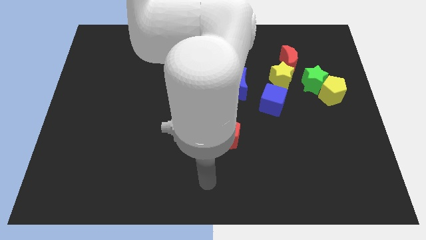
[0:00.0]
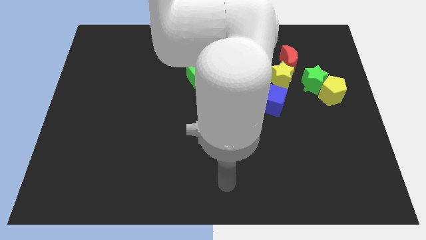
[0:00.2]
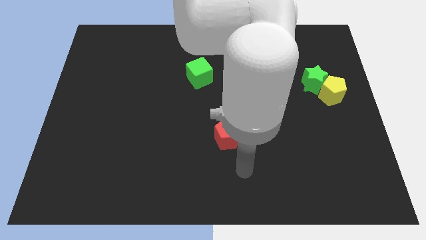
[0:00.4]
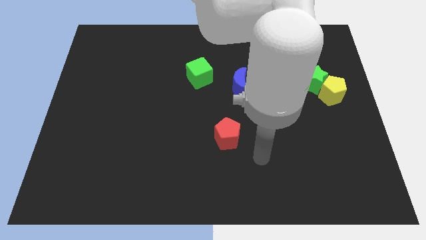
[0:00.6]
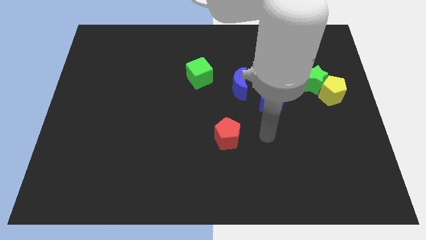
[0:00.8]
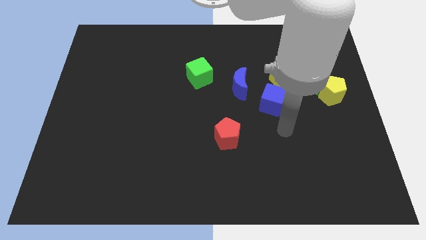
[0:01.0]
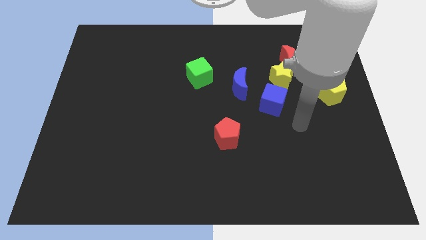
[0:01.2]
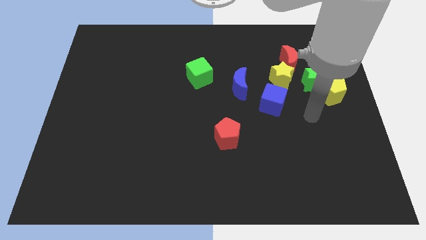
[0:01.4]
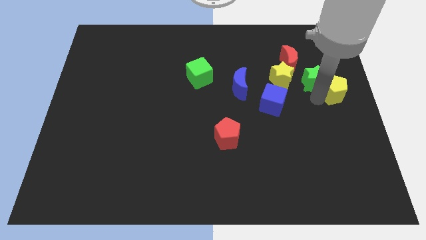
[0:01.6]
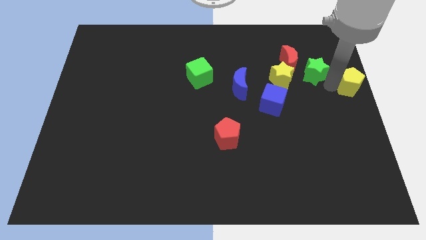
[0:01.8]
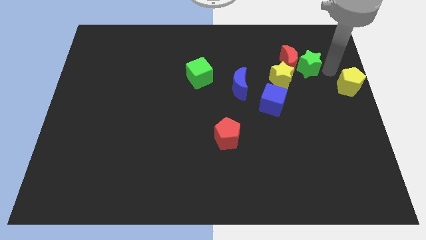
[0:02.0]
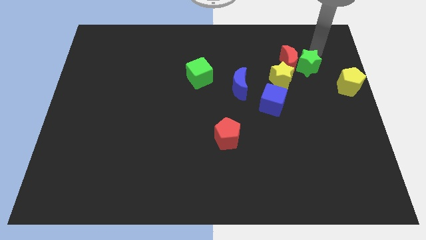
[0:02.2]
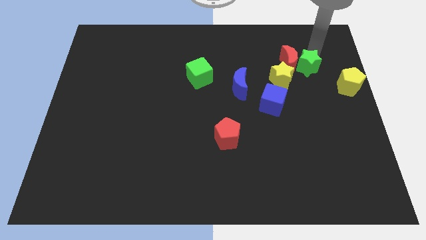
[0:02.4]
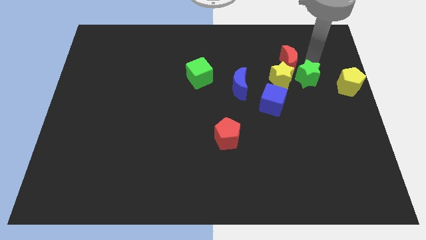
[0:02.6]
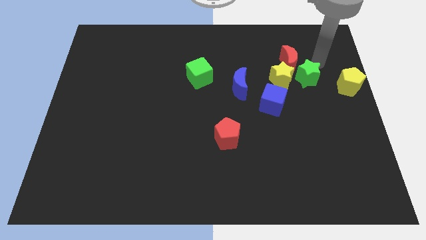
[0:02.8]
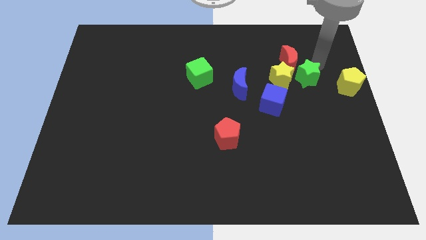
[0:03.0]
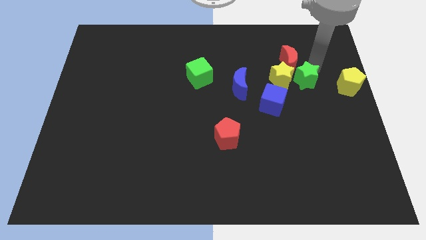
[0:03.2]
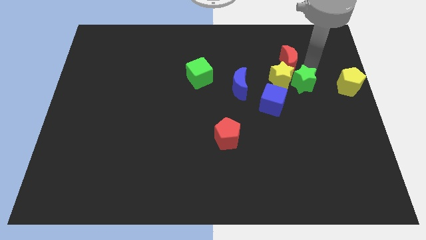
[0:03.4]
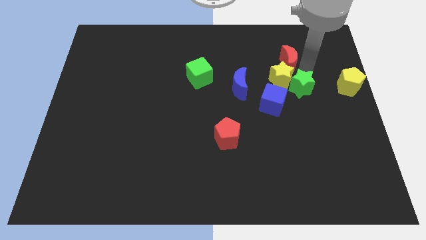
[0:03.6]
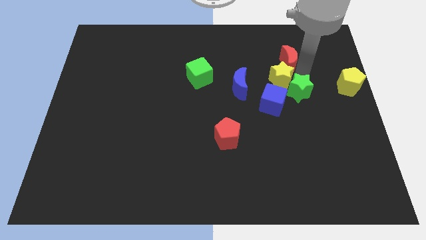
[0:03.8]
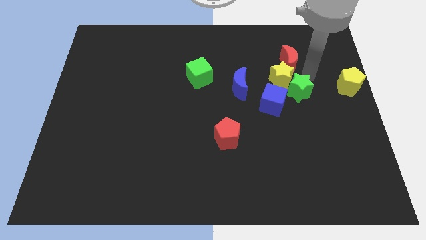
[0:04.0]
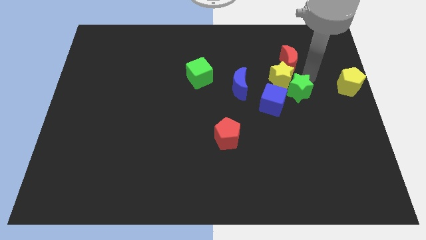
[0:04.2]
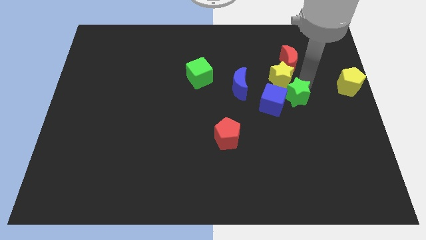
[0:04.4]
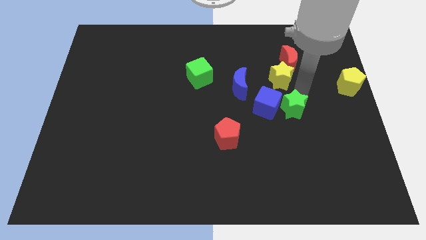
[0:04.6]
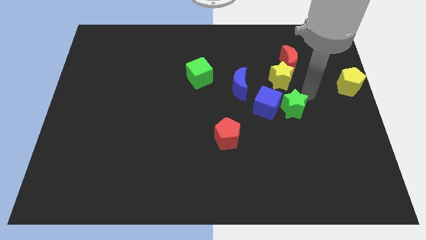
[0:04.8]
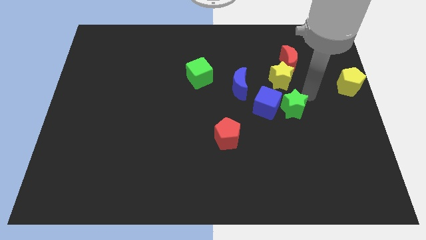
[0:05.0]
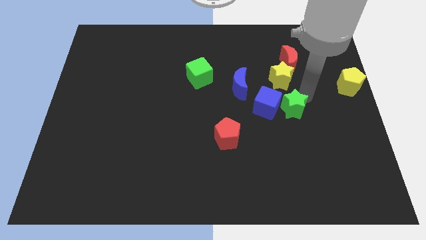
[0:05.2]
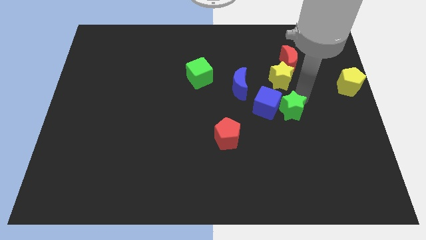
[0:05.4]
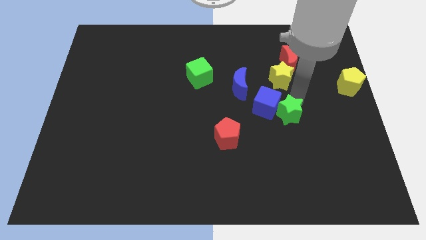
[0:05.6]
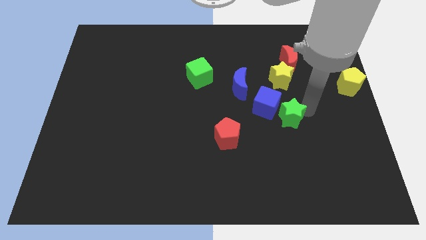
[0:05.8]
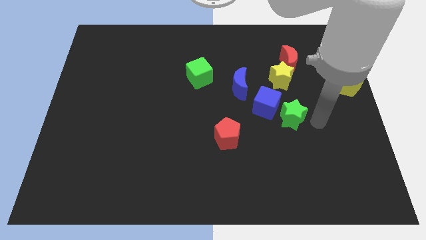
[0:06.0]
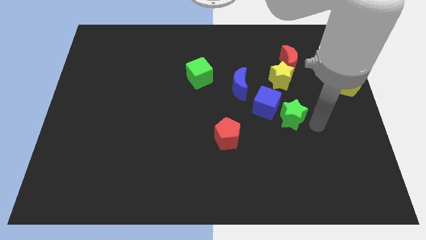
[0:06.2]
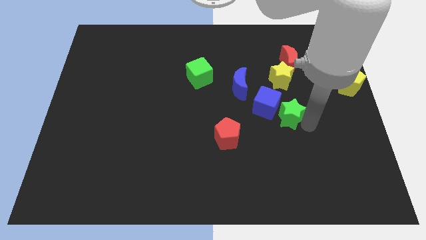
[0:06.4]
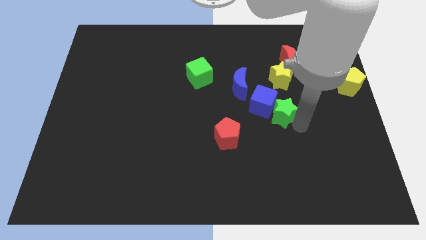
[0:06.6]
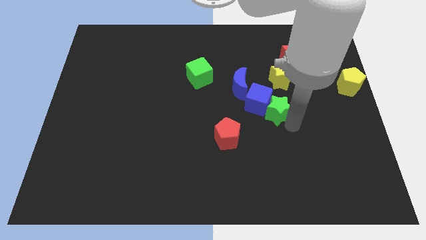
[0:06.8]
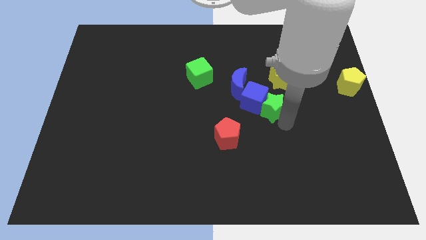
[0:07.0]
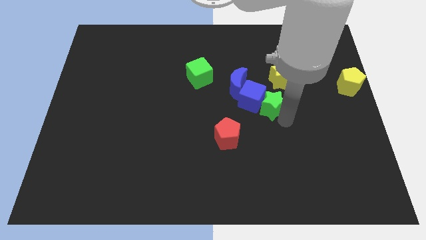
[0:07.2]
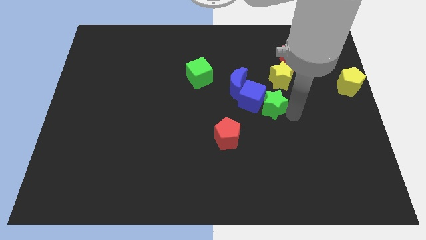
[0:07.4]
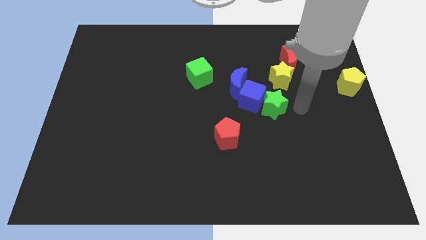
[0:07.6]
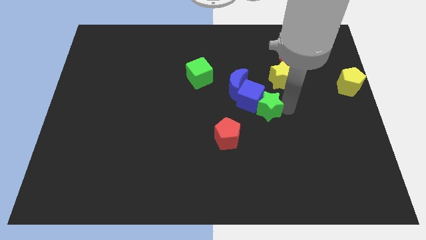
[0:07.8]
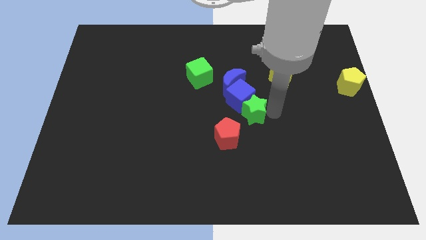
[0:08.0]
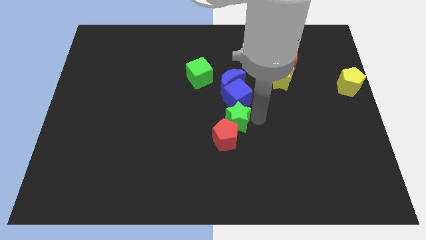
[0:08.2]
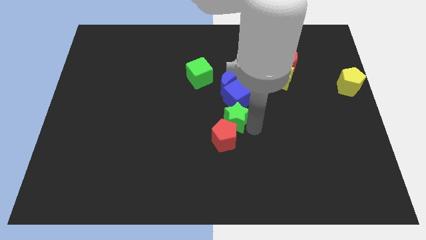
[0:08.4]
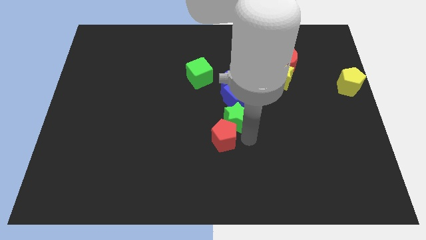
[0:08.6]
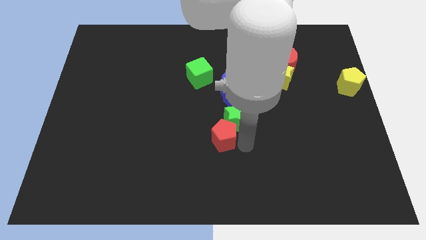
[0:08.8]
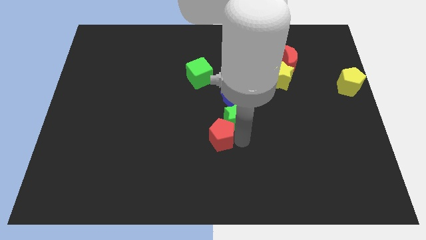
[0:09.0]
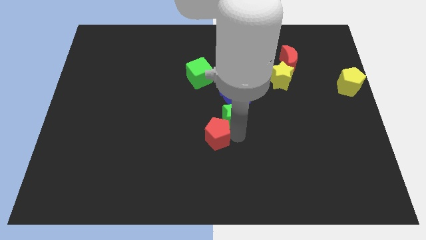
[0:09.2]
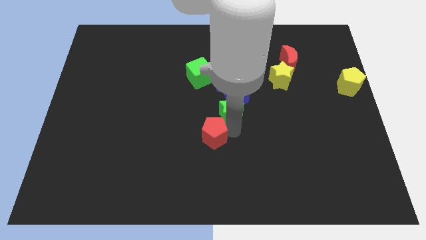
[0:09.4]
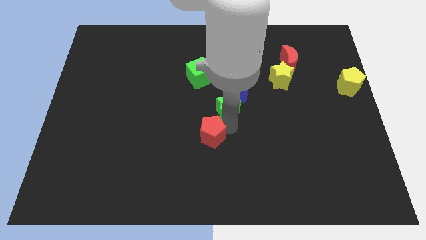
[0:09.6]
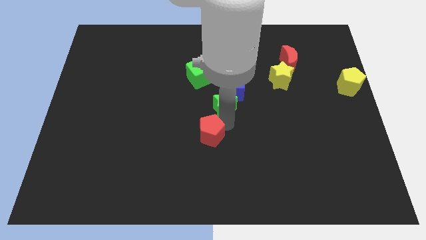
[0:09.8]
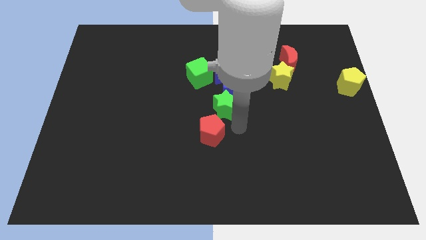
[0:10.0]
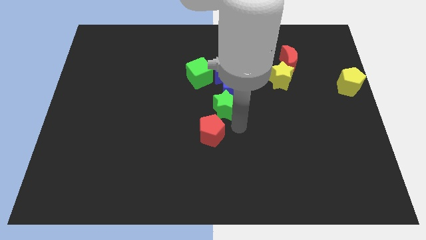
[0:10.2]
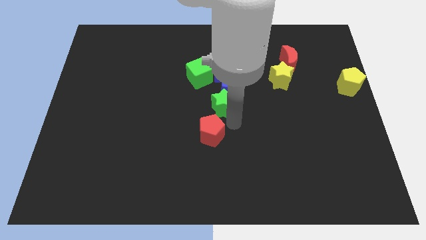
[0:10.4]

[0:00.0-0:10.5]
slide the green star left

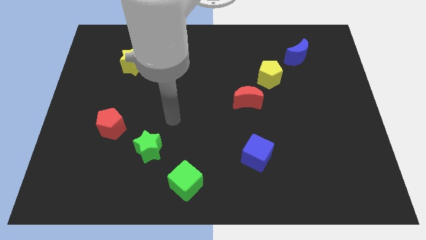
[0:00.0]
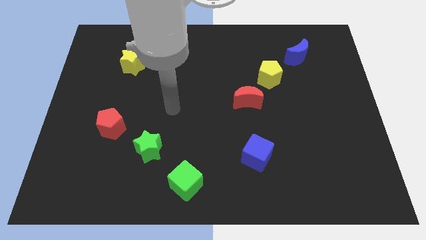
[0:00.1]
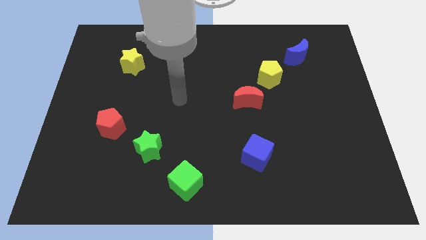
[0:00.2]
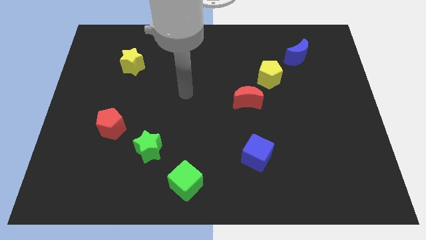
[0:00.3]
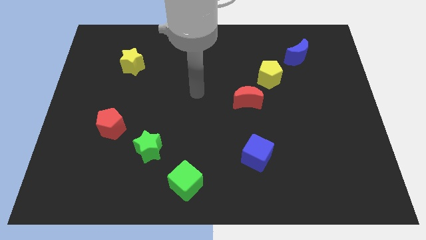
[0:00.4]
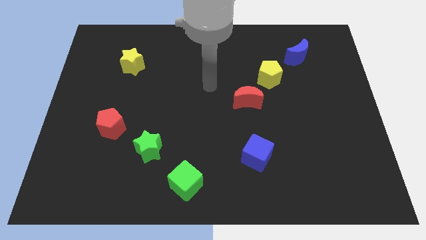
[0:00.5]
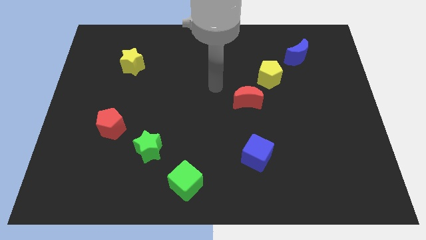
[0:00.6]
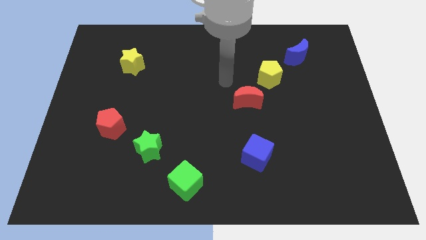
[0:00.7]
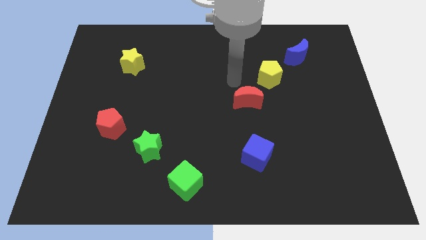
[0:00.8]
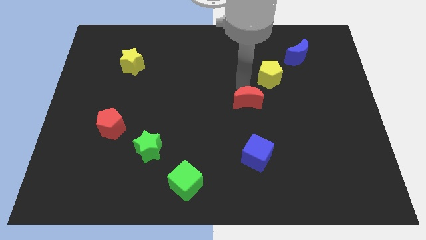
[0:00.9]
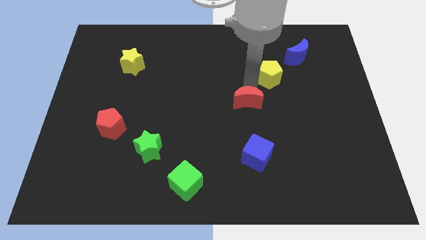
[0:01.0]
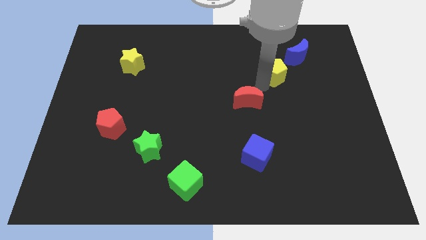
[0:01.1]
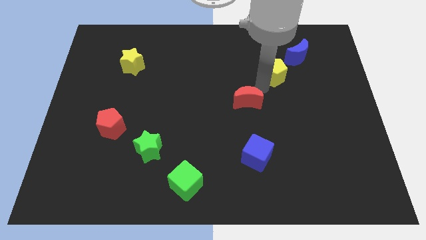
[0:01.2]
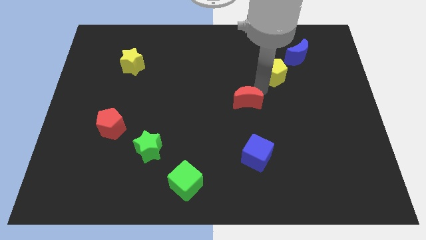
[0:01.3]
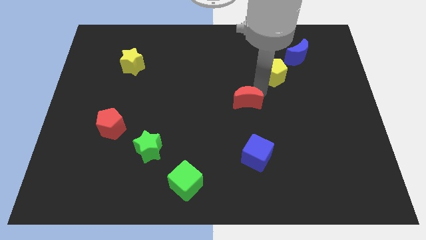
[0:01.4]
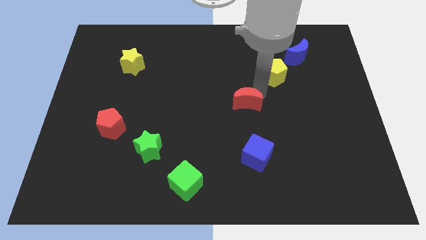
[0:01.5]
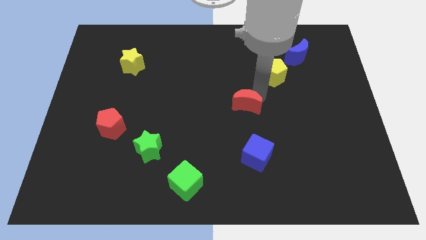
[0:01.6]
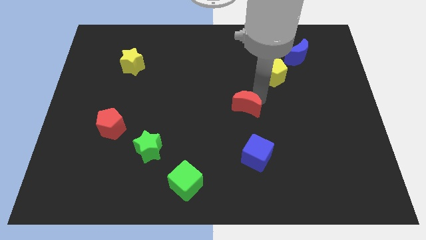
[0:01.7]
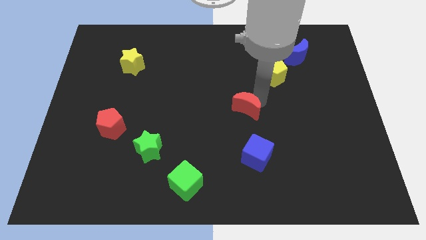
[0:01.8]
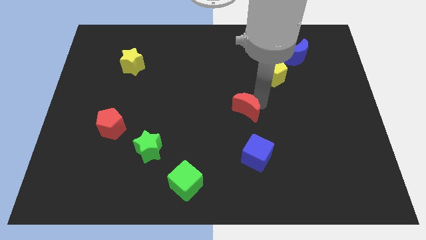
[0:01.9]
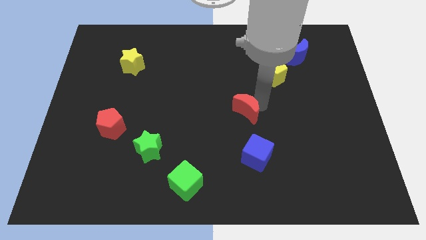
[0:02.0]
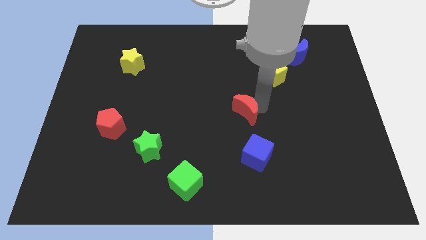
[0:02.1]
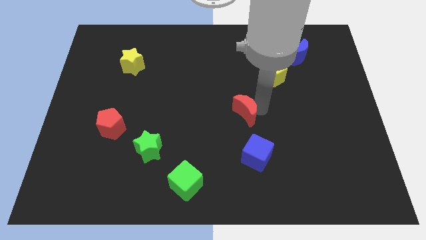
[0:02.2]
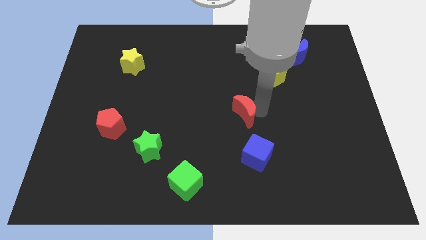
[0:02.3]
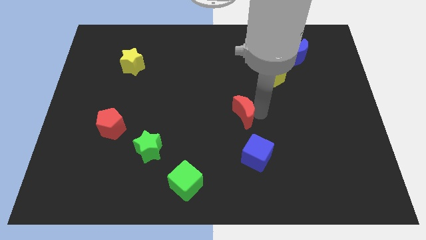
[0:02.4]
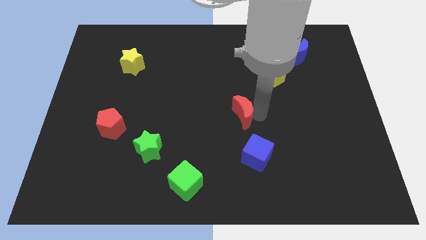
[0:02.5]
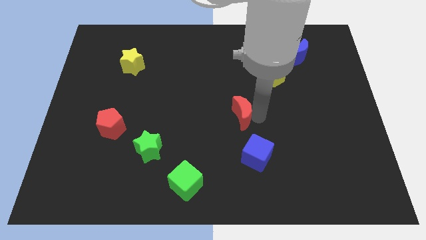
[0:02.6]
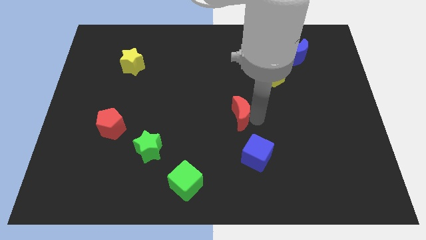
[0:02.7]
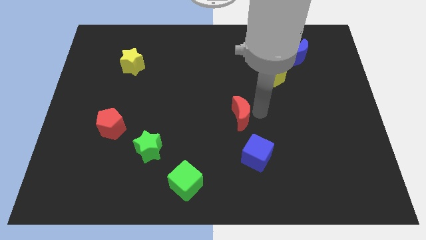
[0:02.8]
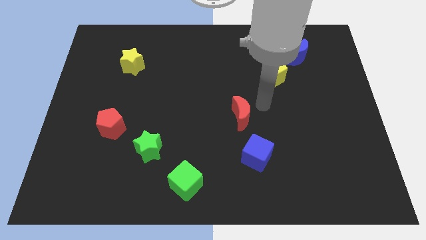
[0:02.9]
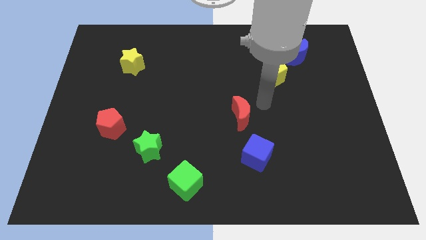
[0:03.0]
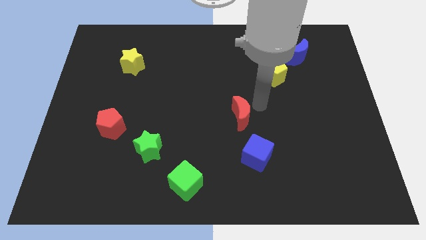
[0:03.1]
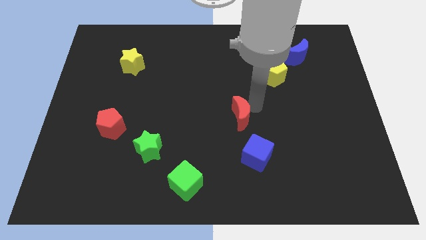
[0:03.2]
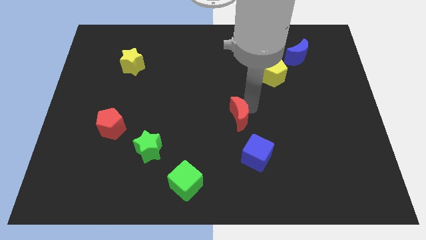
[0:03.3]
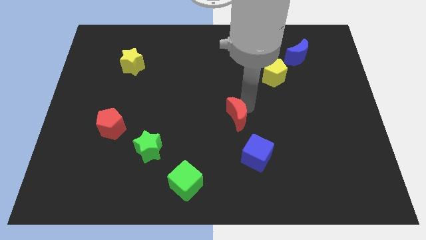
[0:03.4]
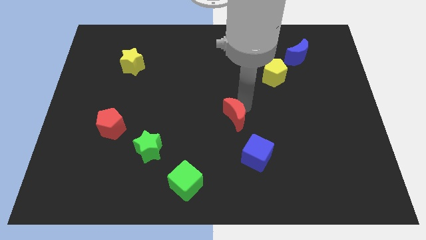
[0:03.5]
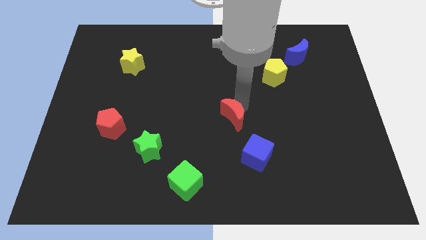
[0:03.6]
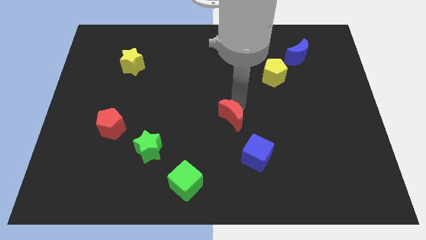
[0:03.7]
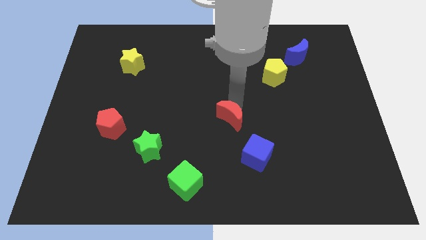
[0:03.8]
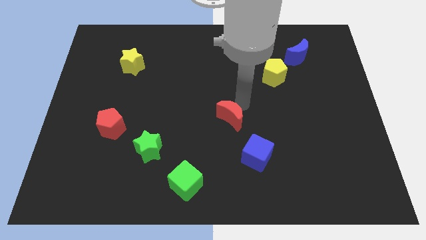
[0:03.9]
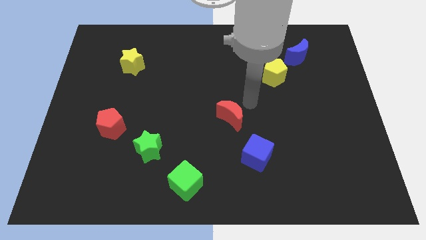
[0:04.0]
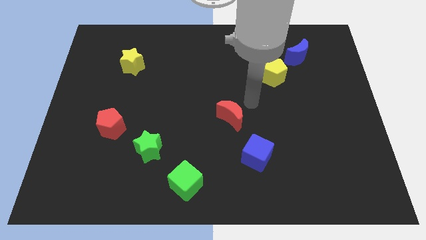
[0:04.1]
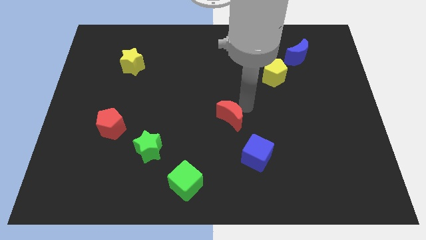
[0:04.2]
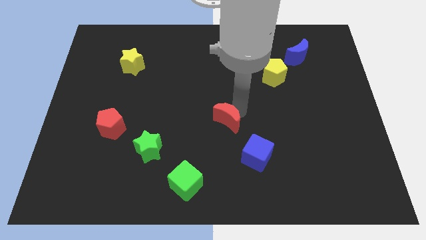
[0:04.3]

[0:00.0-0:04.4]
push the red moon downwards and then left slightly
